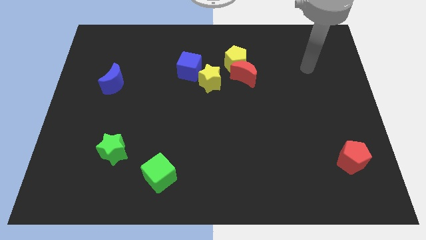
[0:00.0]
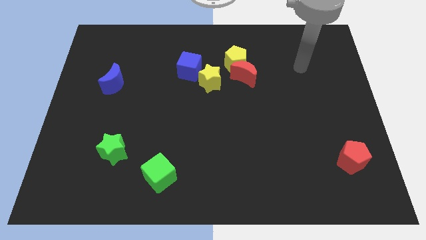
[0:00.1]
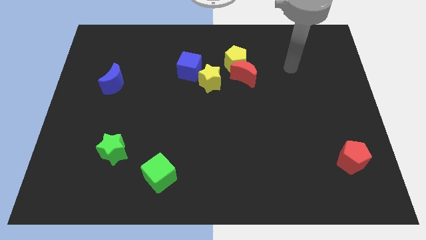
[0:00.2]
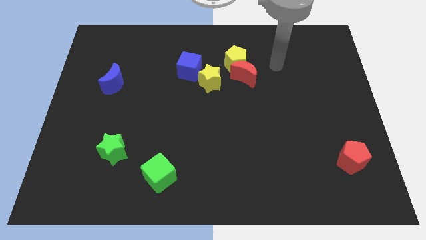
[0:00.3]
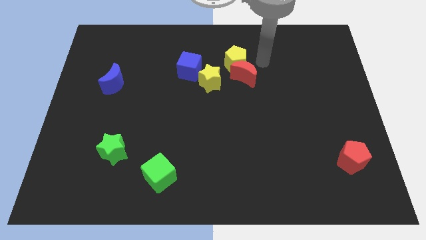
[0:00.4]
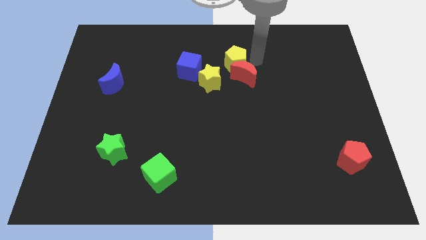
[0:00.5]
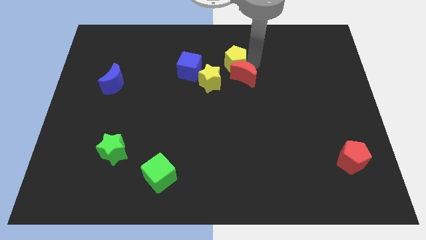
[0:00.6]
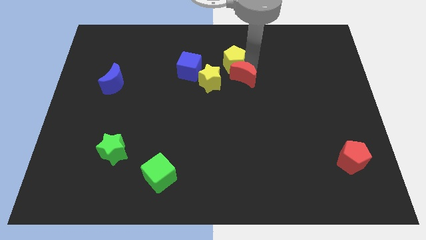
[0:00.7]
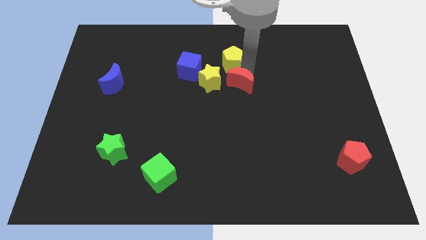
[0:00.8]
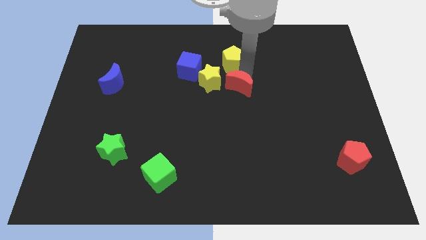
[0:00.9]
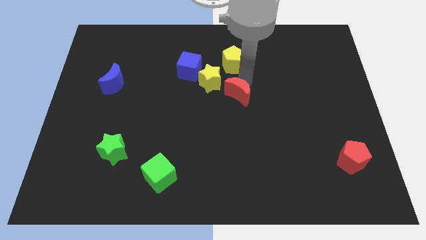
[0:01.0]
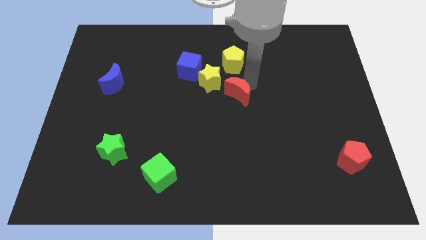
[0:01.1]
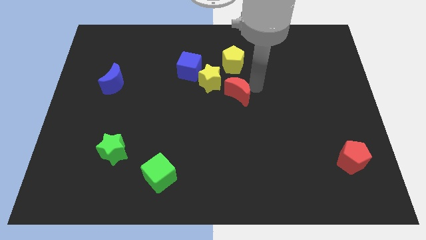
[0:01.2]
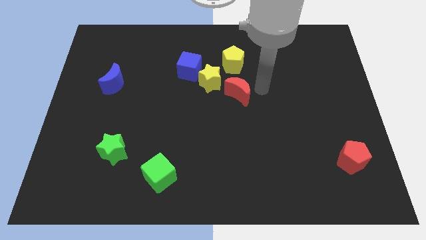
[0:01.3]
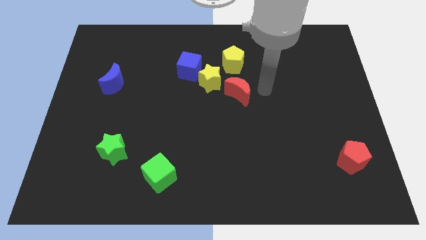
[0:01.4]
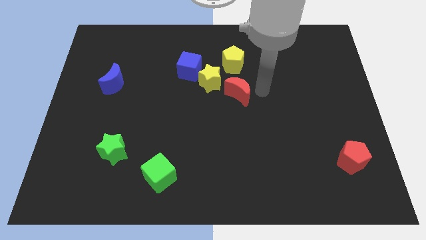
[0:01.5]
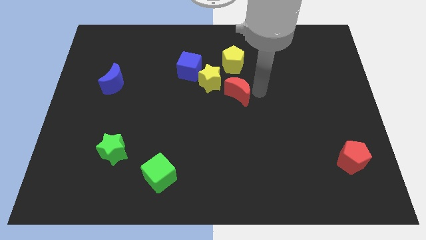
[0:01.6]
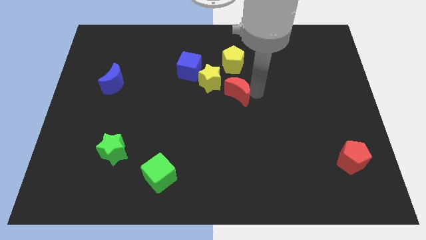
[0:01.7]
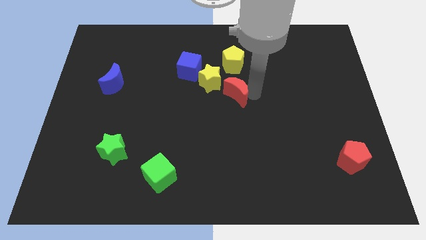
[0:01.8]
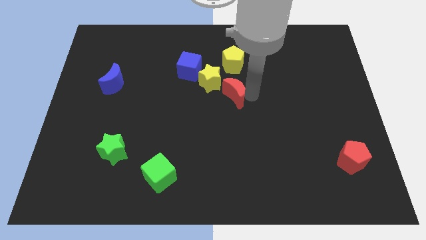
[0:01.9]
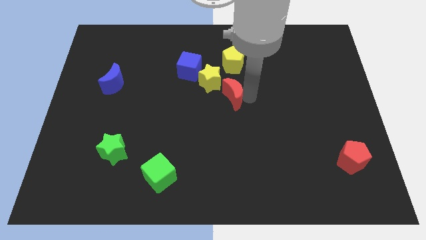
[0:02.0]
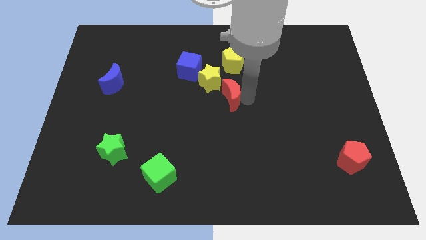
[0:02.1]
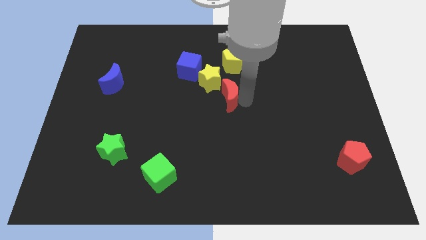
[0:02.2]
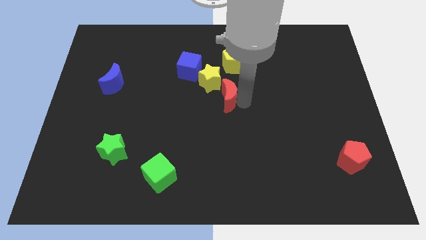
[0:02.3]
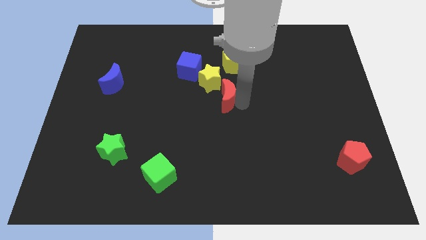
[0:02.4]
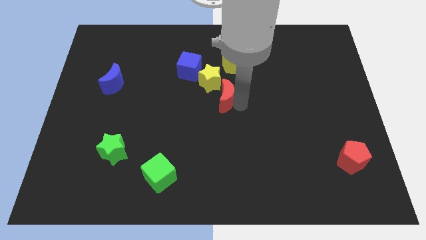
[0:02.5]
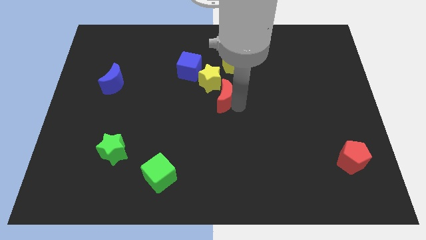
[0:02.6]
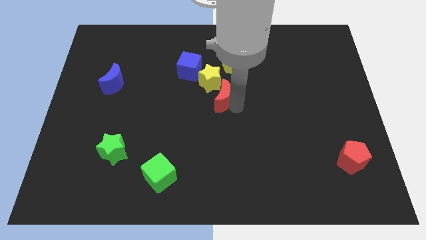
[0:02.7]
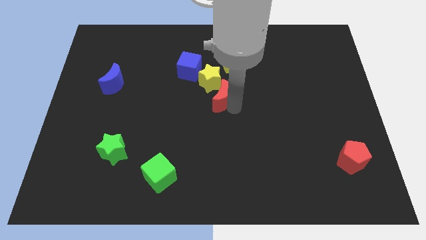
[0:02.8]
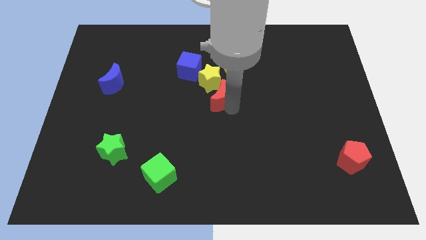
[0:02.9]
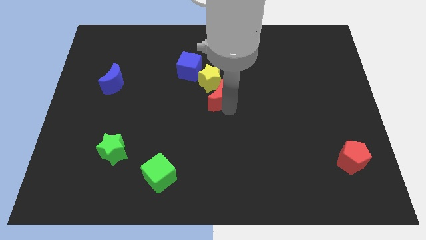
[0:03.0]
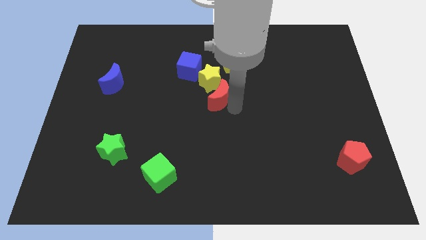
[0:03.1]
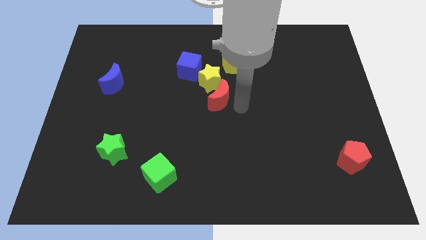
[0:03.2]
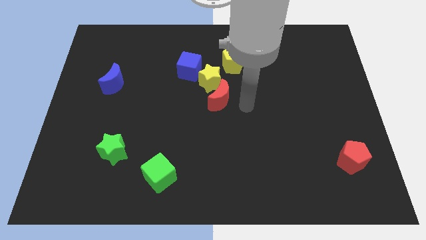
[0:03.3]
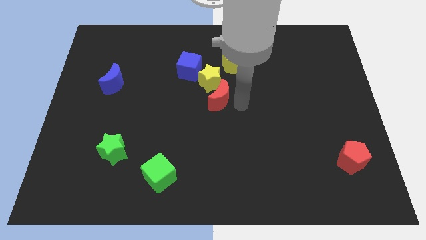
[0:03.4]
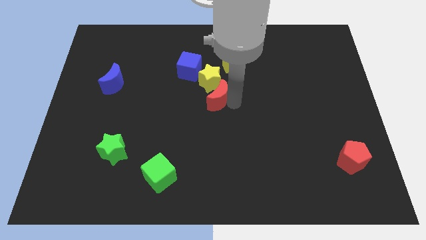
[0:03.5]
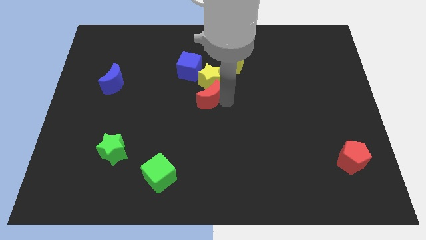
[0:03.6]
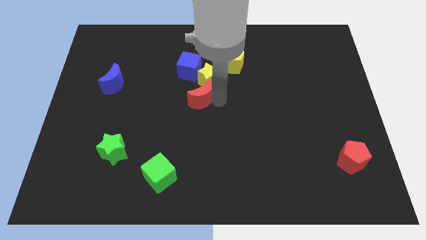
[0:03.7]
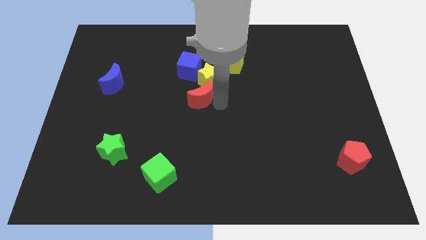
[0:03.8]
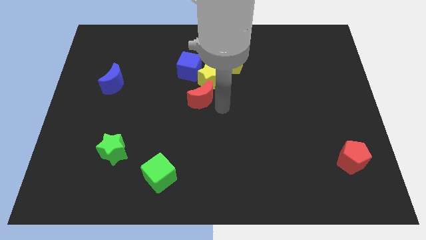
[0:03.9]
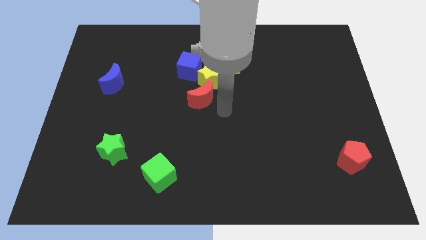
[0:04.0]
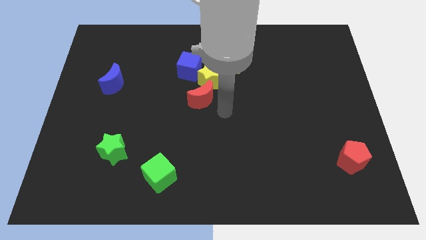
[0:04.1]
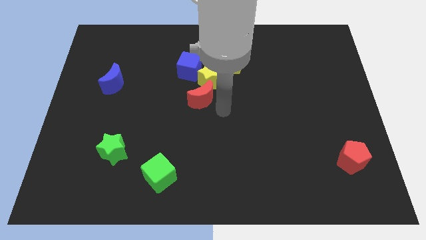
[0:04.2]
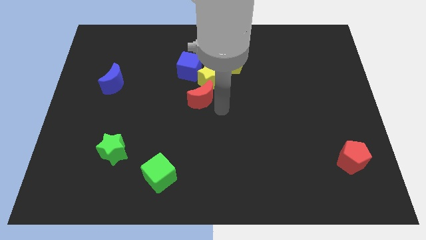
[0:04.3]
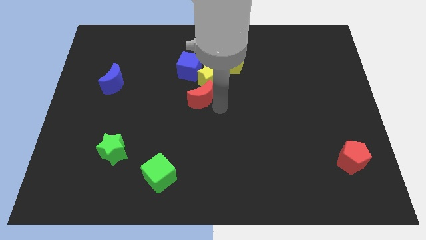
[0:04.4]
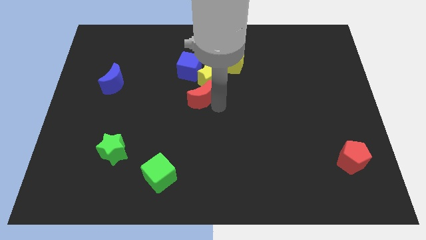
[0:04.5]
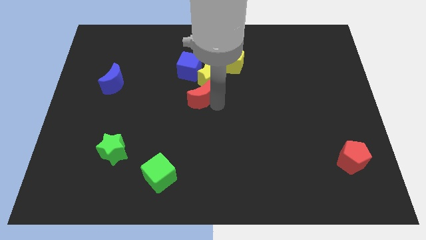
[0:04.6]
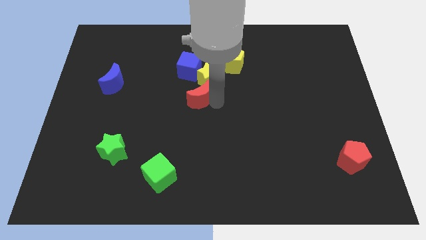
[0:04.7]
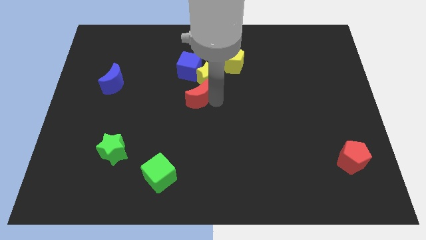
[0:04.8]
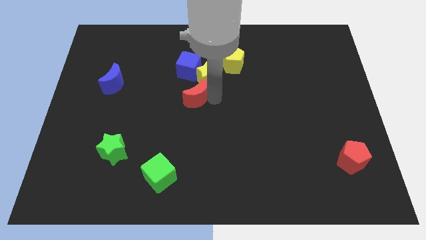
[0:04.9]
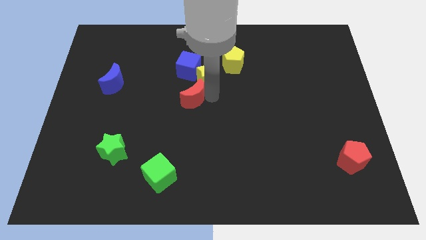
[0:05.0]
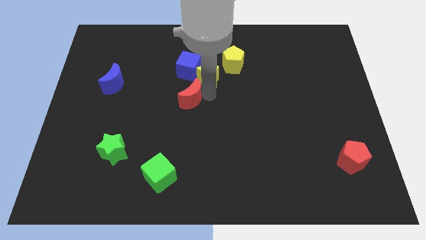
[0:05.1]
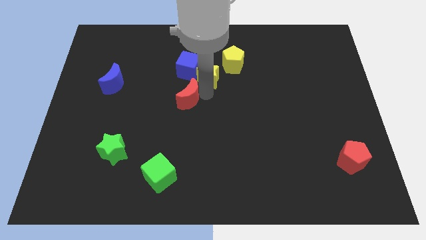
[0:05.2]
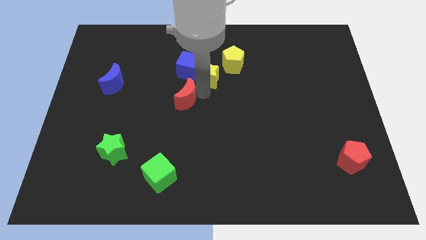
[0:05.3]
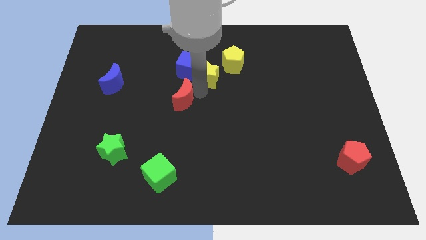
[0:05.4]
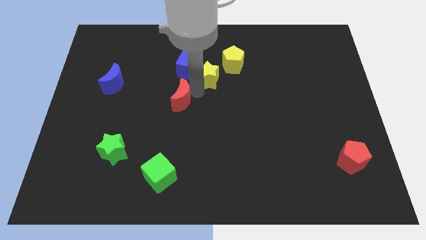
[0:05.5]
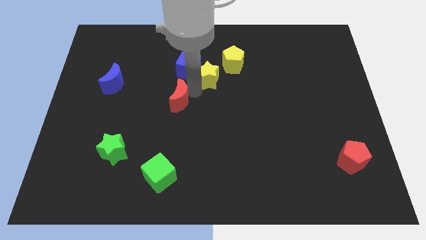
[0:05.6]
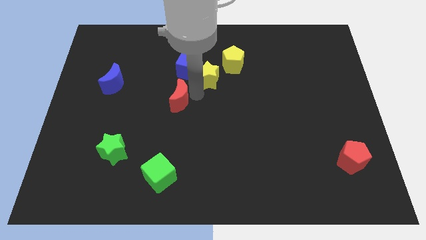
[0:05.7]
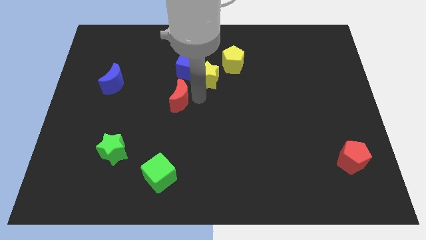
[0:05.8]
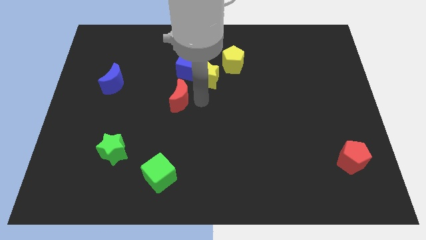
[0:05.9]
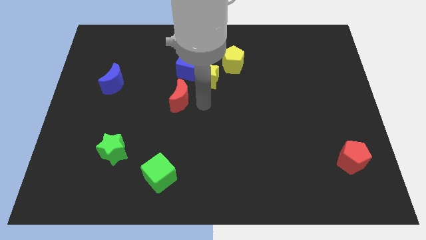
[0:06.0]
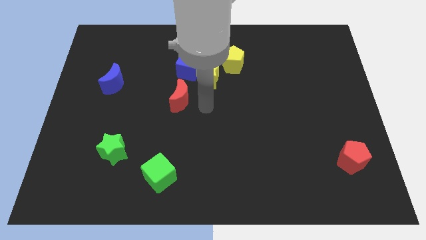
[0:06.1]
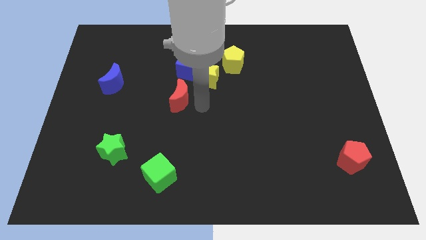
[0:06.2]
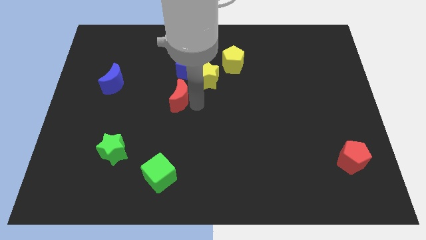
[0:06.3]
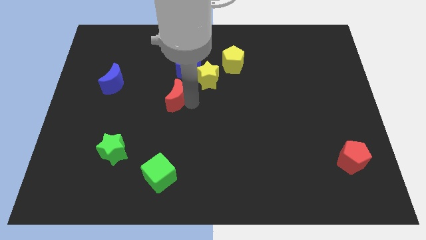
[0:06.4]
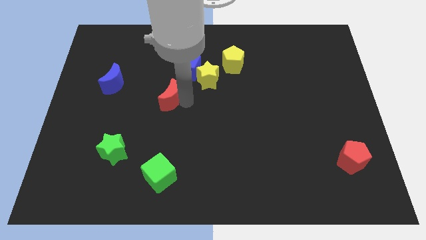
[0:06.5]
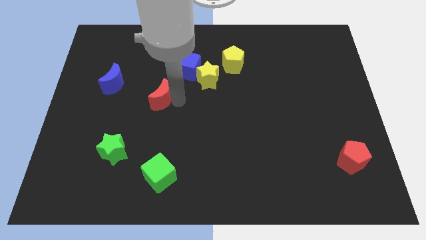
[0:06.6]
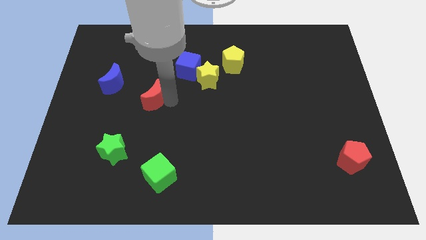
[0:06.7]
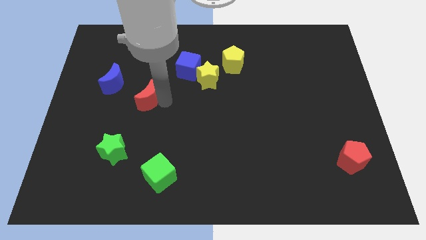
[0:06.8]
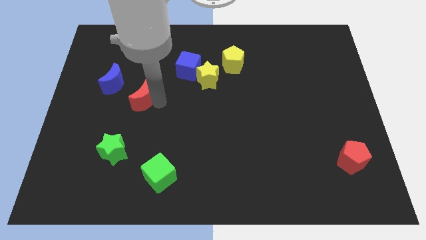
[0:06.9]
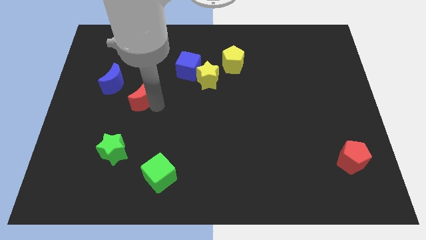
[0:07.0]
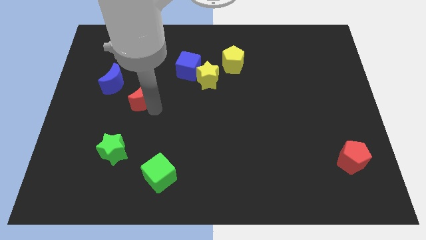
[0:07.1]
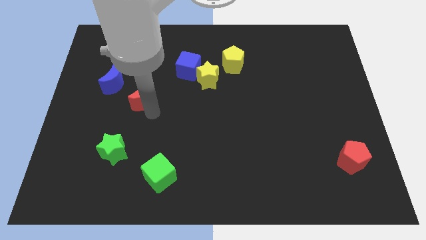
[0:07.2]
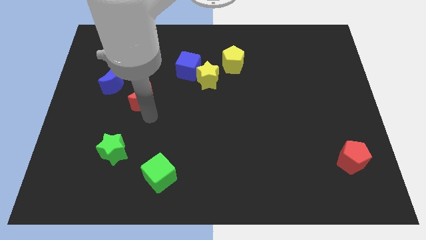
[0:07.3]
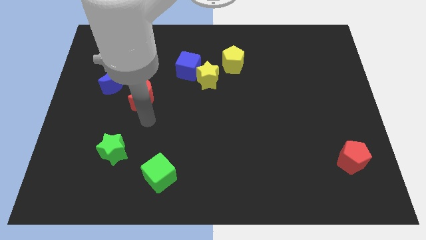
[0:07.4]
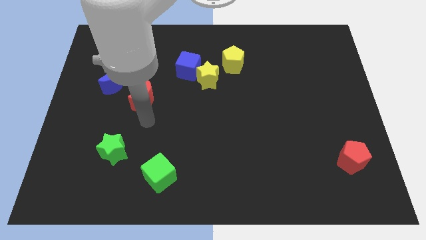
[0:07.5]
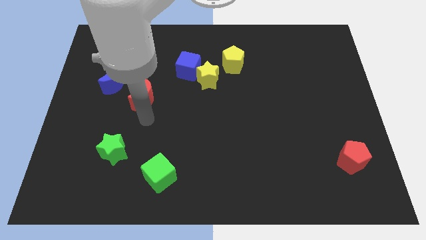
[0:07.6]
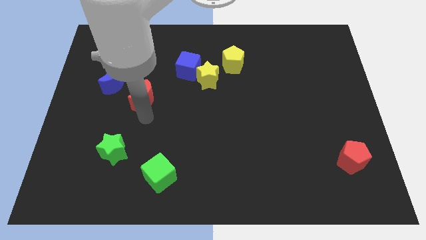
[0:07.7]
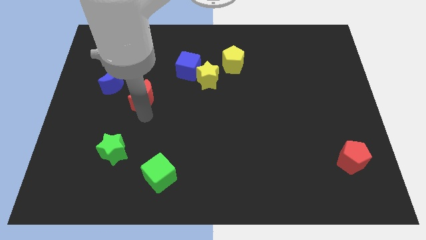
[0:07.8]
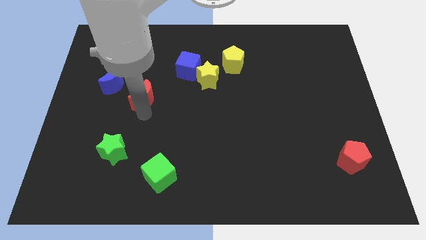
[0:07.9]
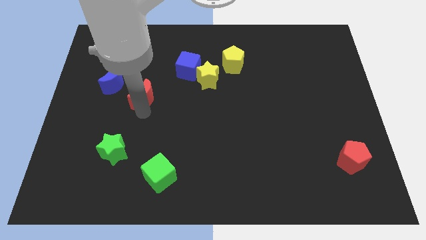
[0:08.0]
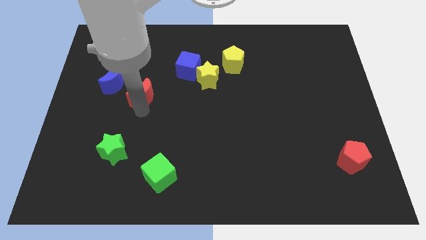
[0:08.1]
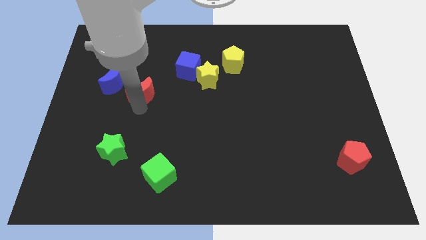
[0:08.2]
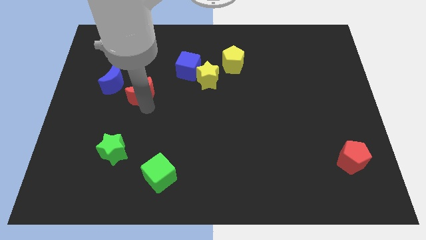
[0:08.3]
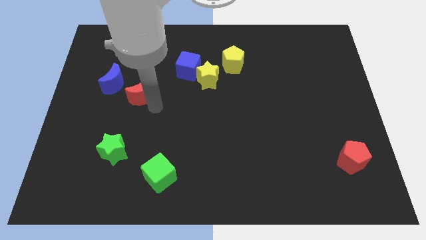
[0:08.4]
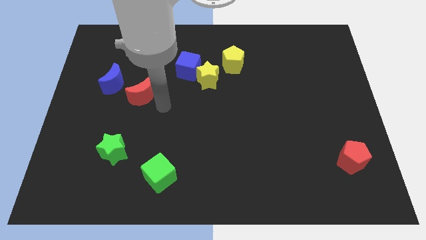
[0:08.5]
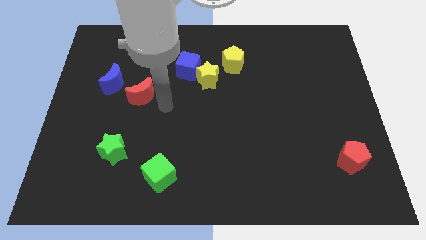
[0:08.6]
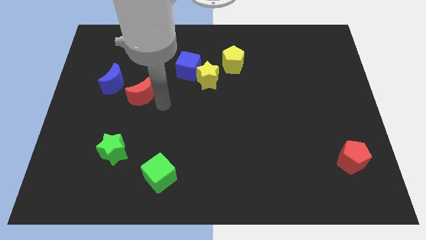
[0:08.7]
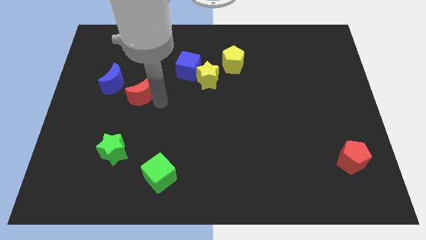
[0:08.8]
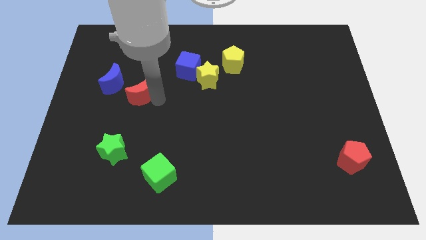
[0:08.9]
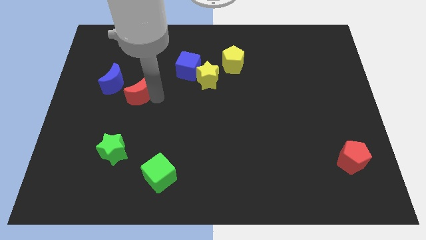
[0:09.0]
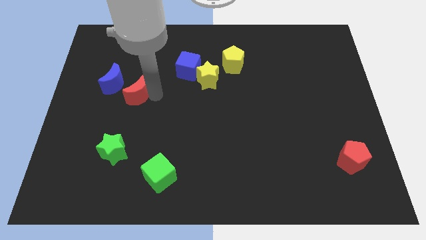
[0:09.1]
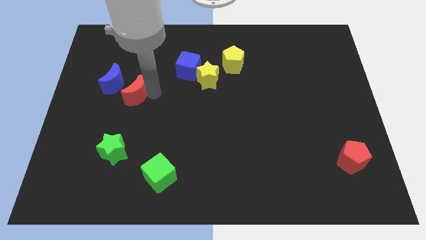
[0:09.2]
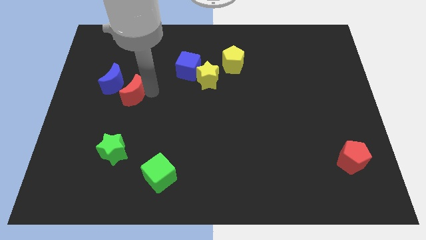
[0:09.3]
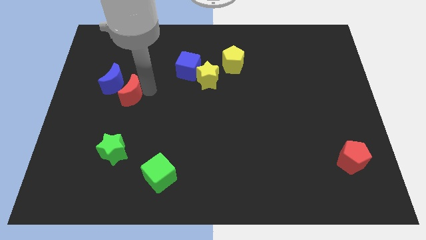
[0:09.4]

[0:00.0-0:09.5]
push the red moon to the blue moon
